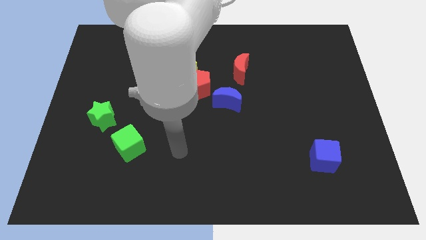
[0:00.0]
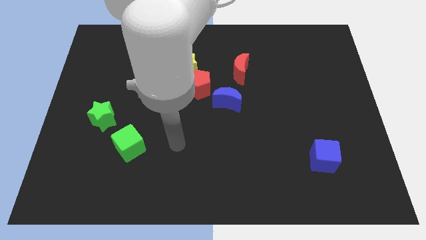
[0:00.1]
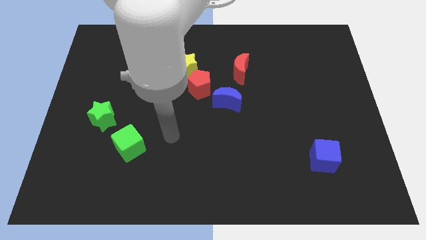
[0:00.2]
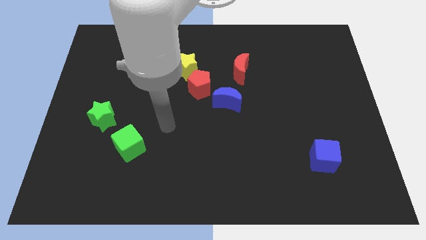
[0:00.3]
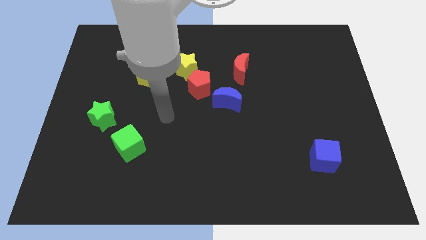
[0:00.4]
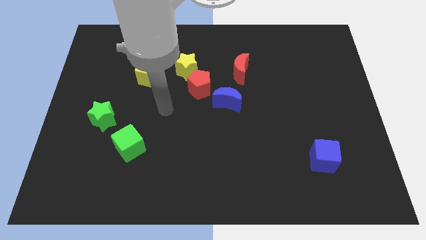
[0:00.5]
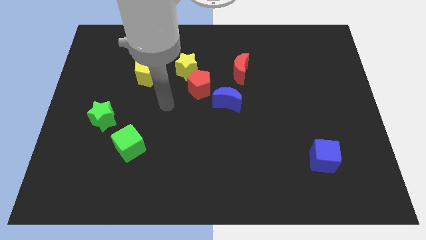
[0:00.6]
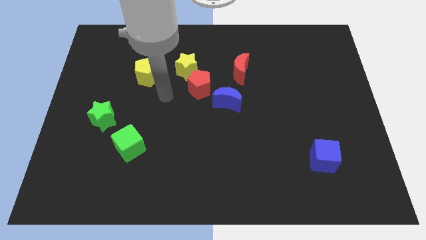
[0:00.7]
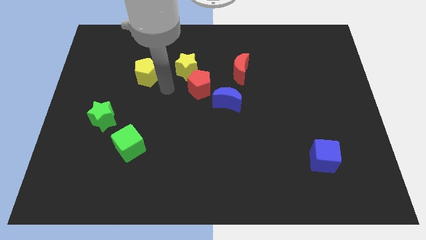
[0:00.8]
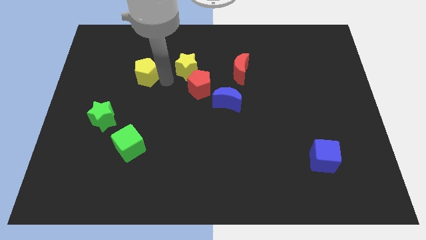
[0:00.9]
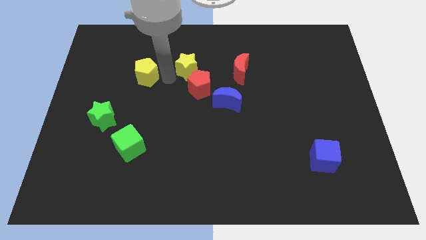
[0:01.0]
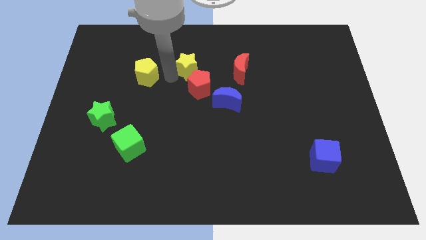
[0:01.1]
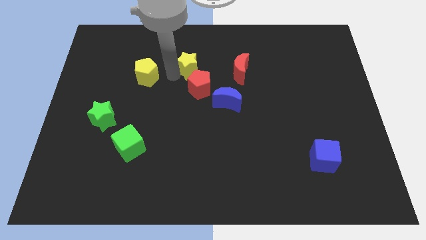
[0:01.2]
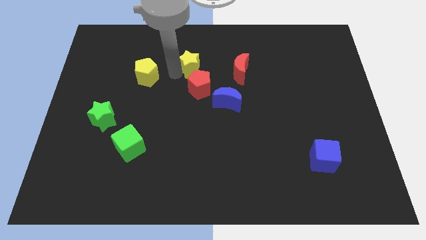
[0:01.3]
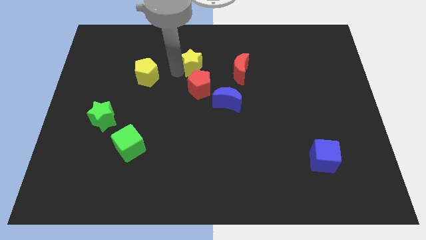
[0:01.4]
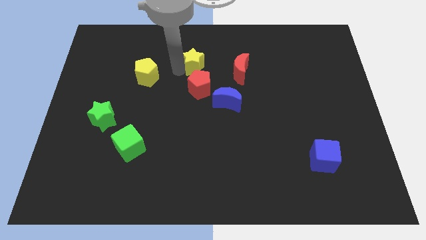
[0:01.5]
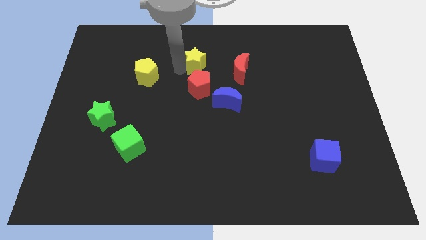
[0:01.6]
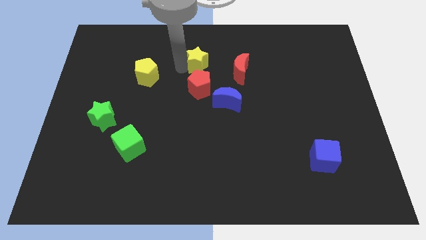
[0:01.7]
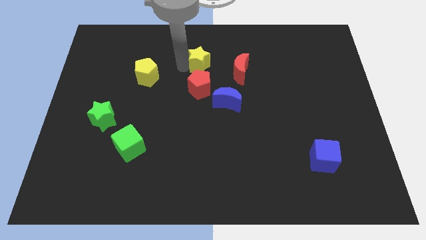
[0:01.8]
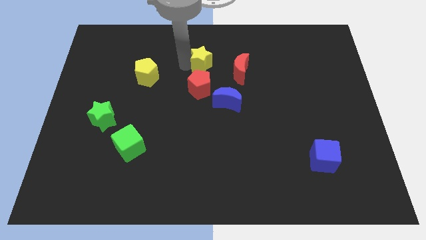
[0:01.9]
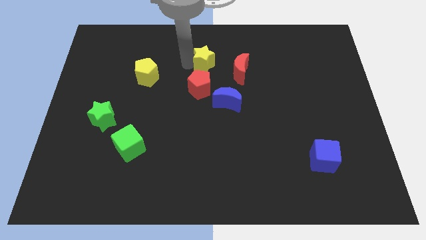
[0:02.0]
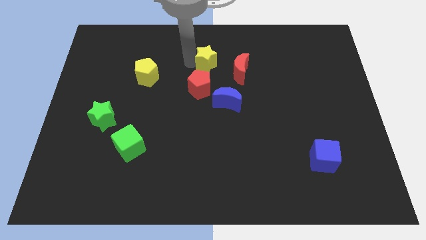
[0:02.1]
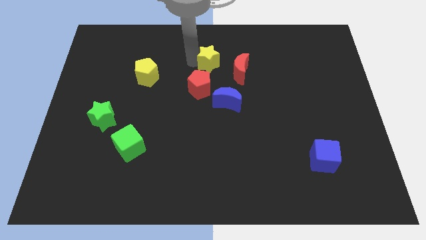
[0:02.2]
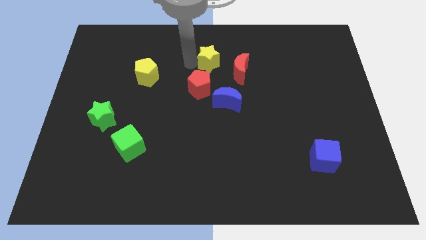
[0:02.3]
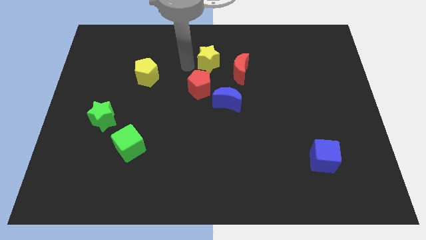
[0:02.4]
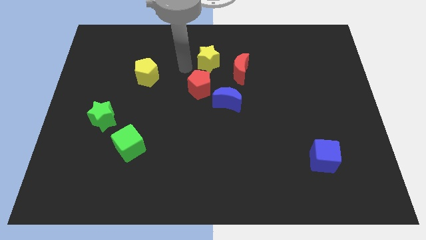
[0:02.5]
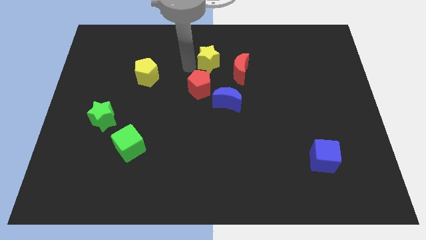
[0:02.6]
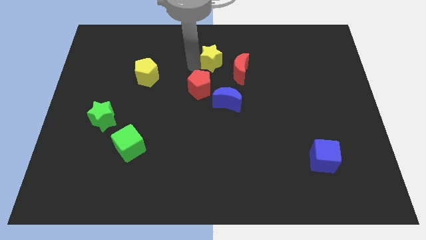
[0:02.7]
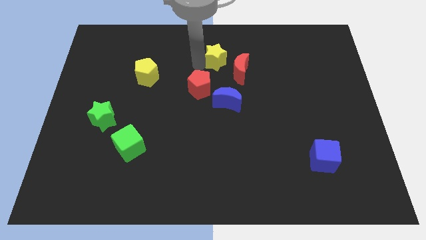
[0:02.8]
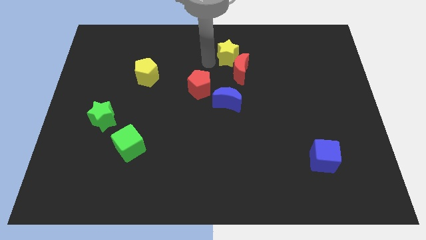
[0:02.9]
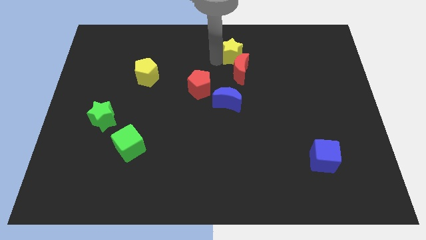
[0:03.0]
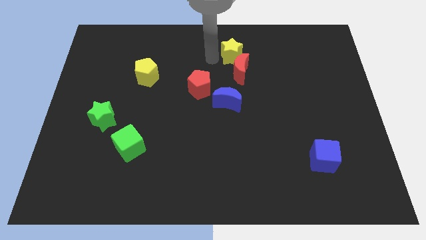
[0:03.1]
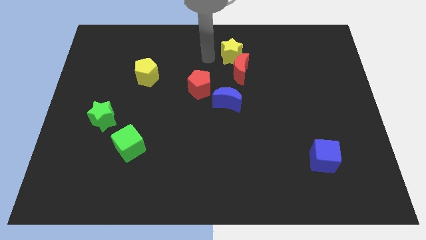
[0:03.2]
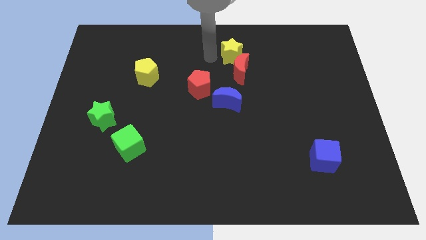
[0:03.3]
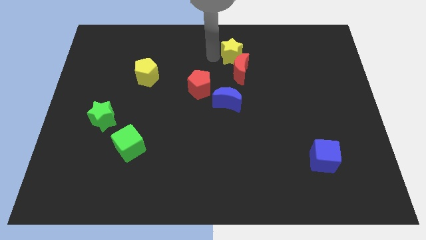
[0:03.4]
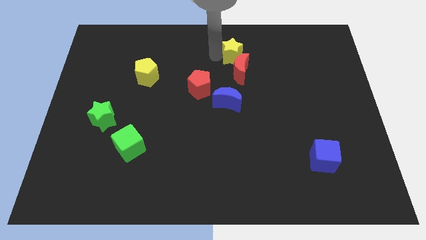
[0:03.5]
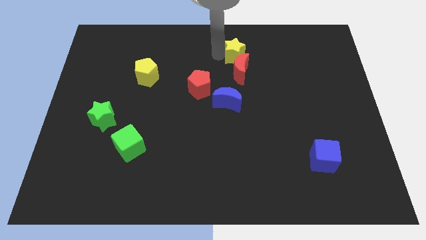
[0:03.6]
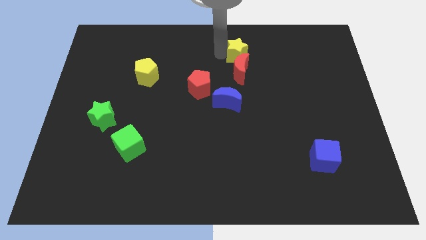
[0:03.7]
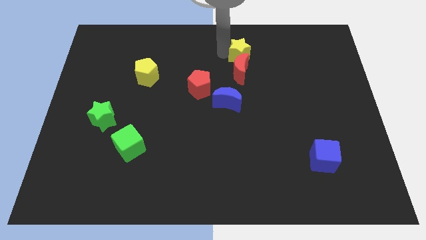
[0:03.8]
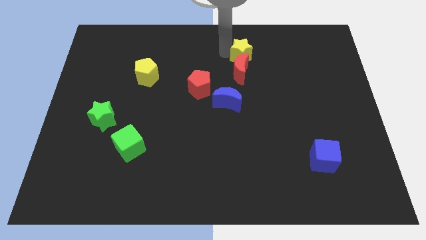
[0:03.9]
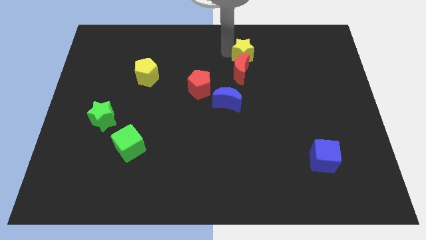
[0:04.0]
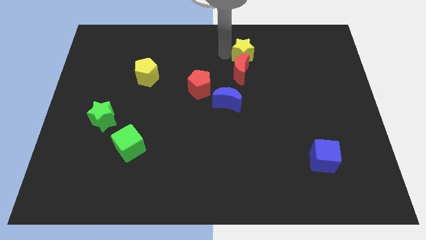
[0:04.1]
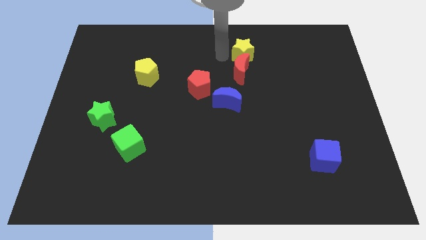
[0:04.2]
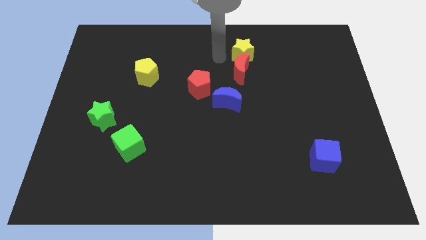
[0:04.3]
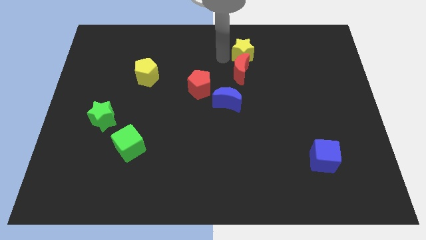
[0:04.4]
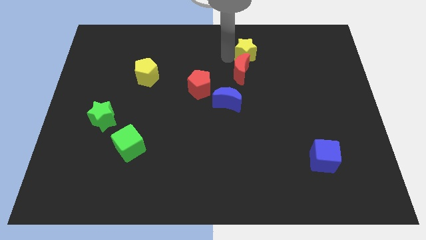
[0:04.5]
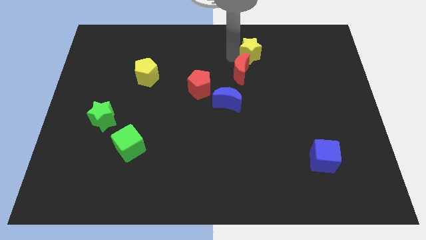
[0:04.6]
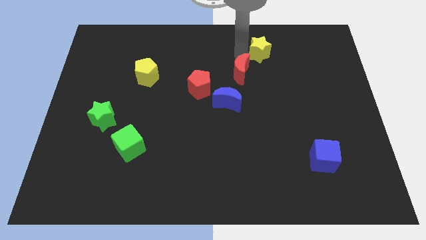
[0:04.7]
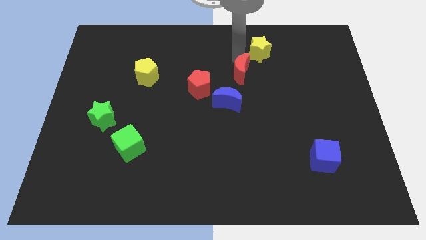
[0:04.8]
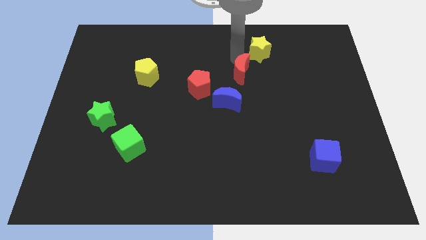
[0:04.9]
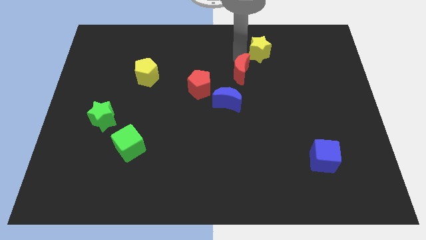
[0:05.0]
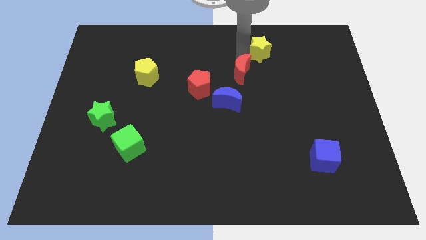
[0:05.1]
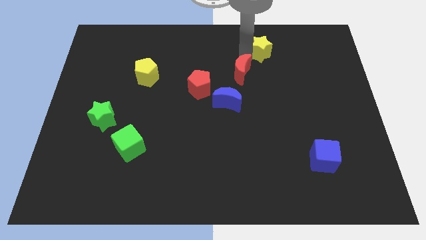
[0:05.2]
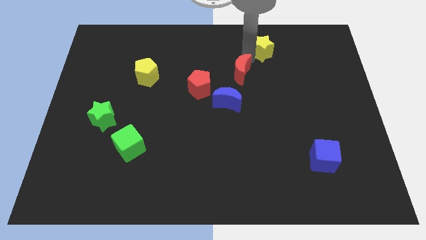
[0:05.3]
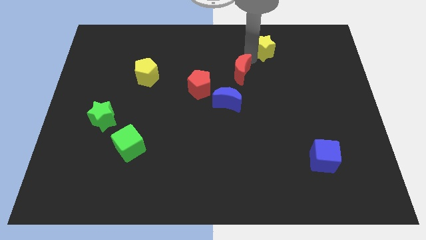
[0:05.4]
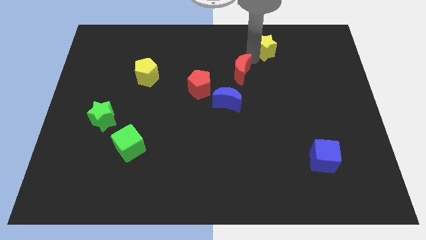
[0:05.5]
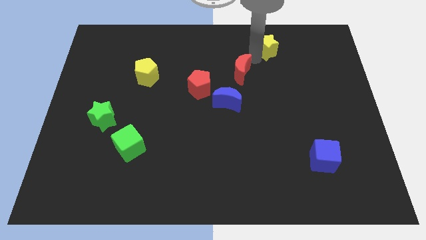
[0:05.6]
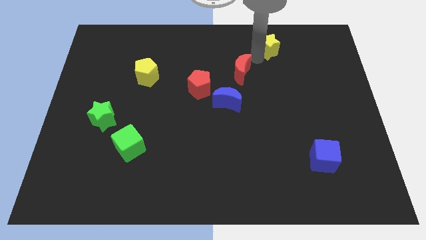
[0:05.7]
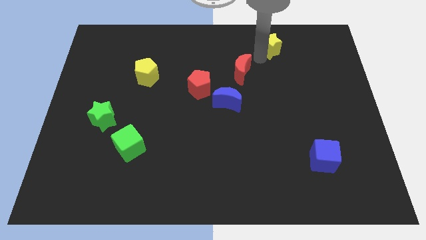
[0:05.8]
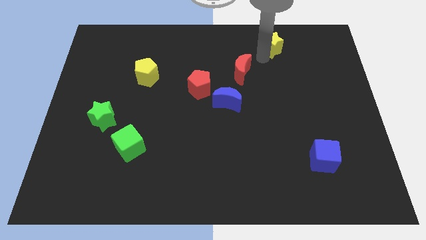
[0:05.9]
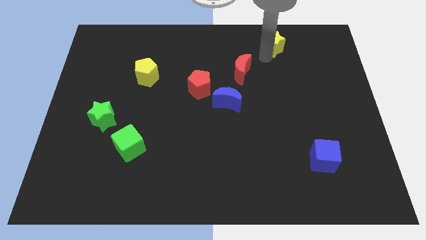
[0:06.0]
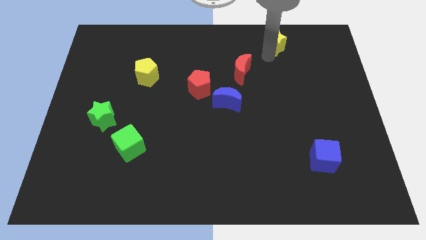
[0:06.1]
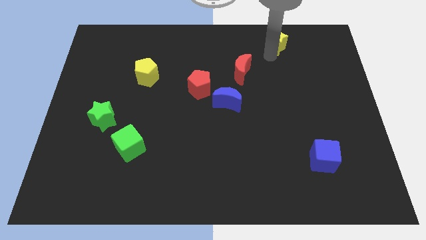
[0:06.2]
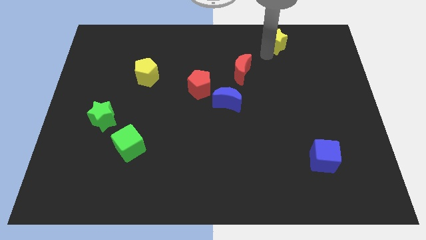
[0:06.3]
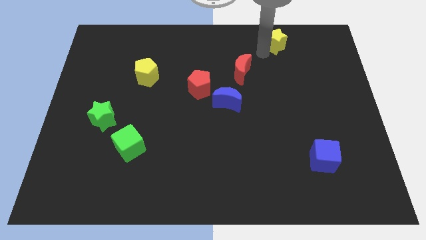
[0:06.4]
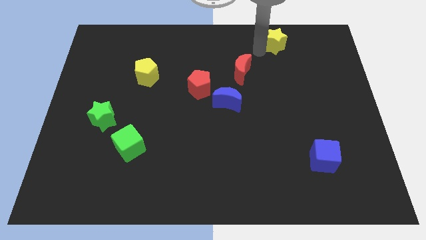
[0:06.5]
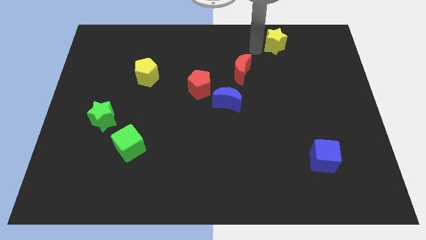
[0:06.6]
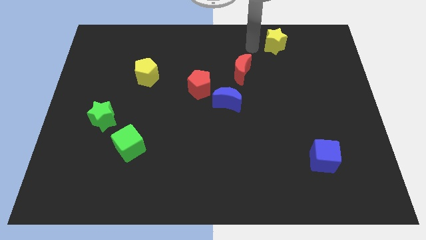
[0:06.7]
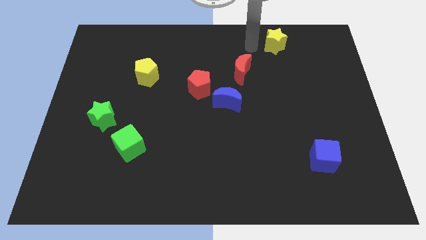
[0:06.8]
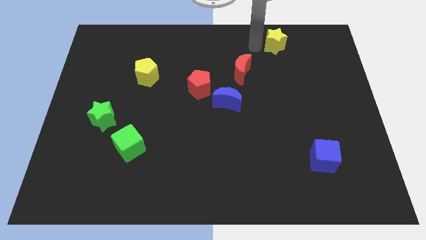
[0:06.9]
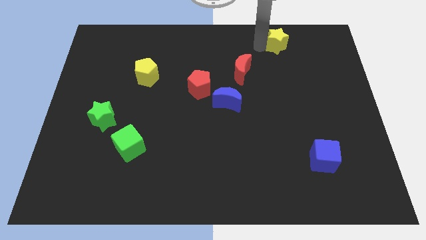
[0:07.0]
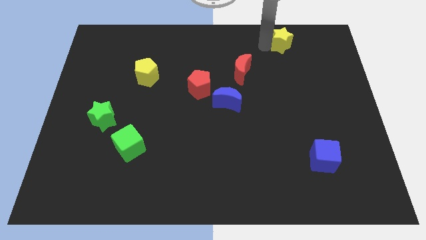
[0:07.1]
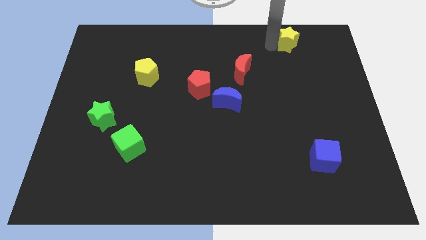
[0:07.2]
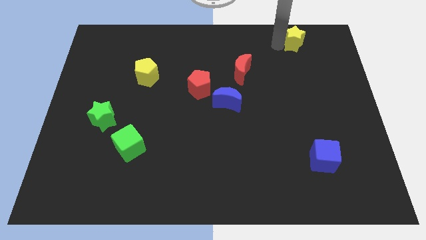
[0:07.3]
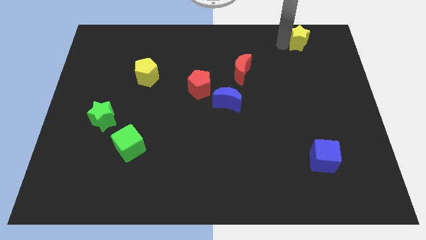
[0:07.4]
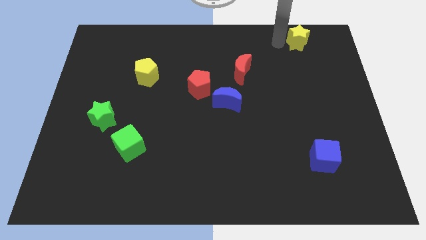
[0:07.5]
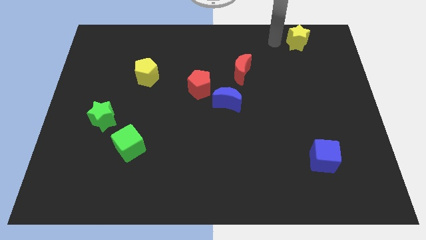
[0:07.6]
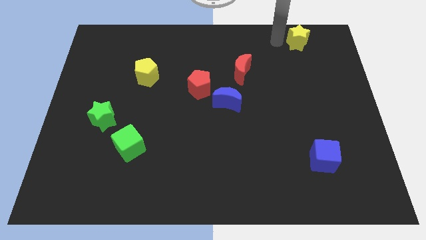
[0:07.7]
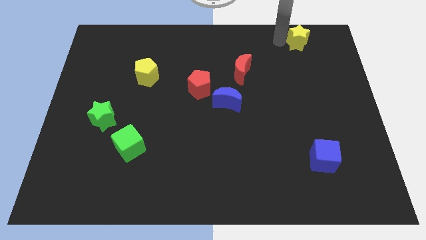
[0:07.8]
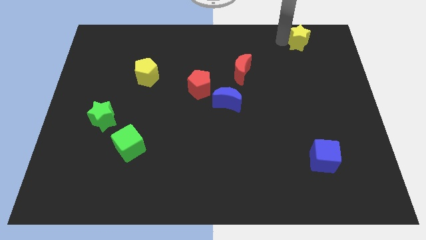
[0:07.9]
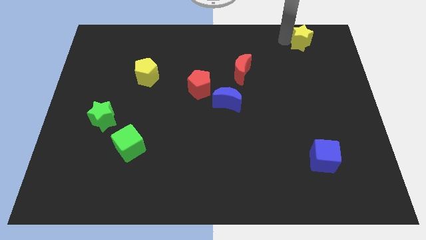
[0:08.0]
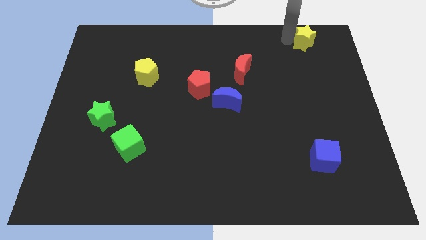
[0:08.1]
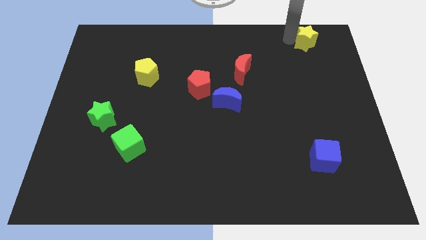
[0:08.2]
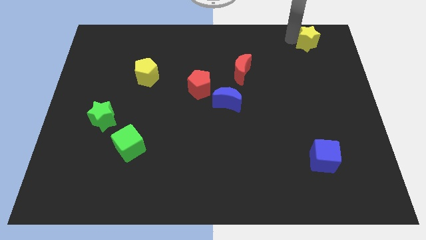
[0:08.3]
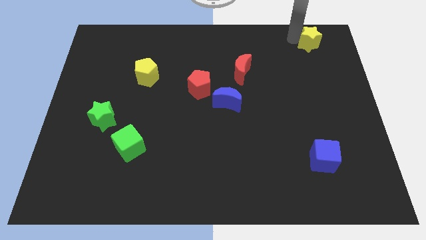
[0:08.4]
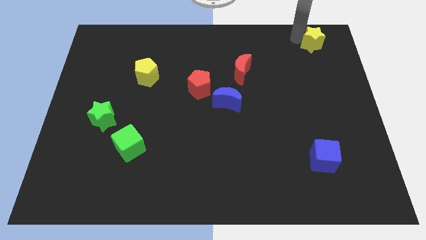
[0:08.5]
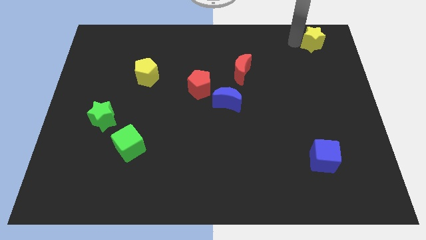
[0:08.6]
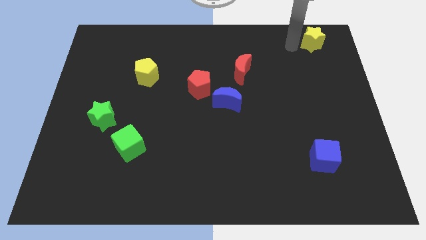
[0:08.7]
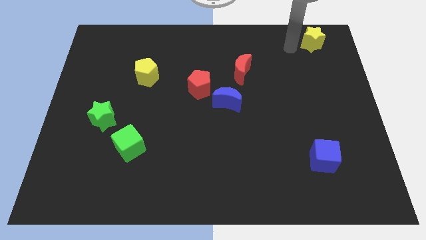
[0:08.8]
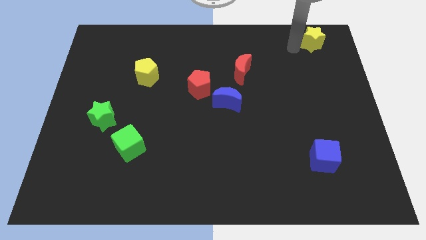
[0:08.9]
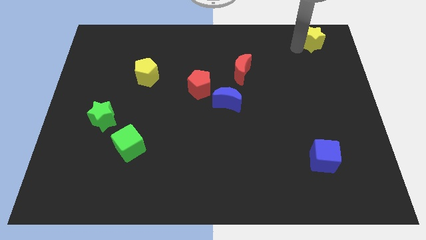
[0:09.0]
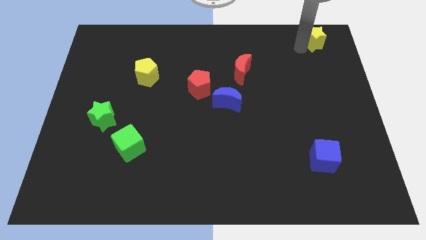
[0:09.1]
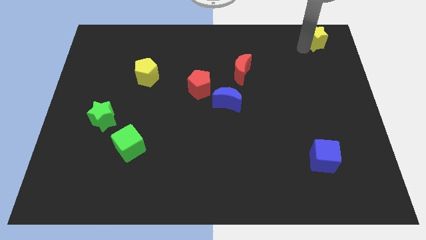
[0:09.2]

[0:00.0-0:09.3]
move the yellow star to the top right corner
